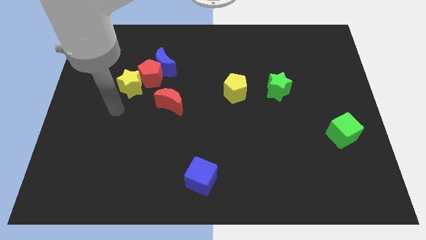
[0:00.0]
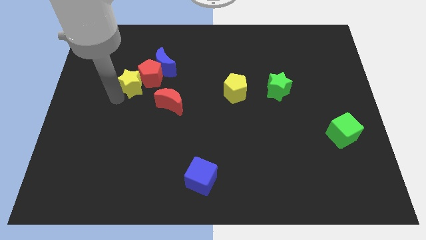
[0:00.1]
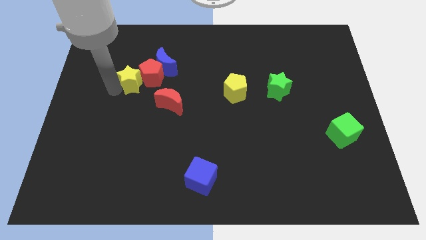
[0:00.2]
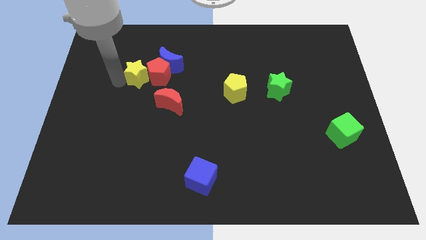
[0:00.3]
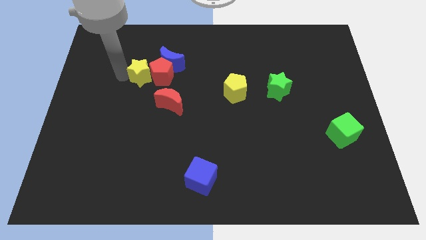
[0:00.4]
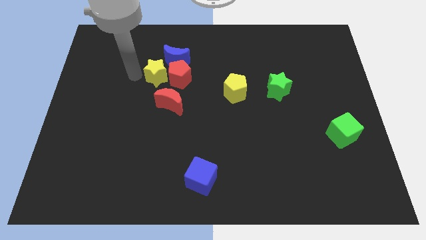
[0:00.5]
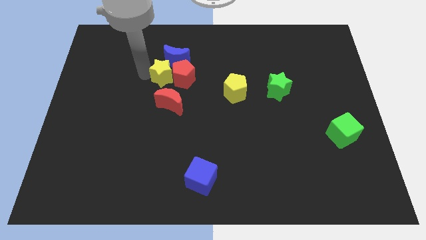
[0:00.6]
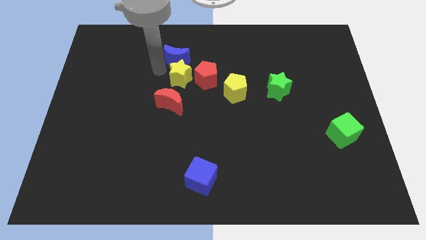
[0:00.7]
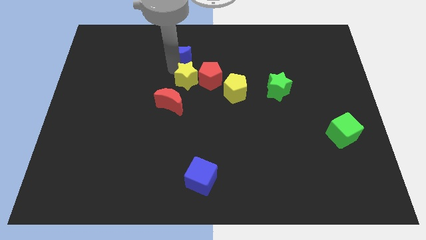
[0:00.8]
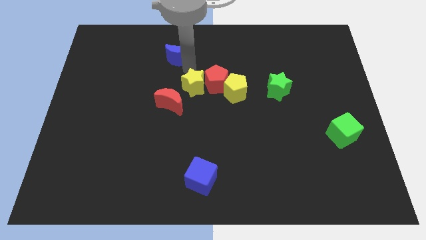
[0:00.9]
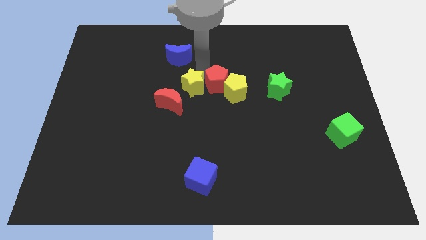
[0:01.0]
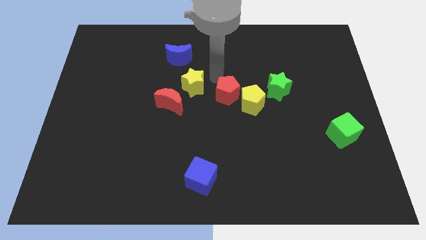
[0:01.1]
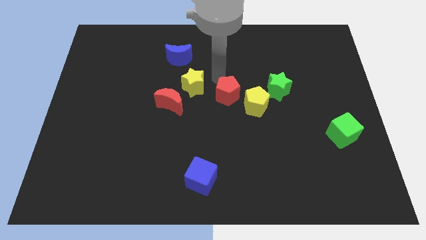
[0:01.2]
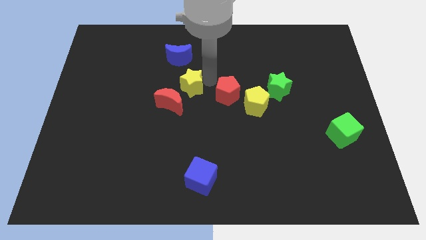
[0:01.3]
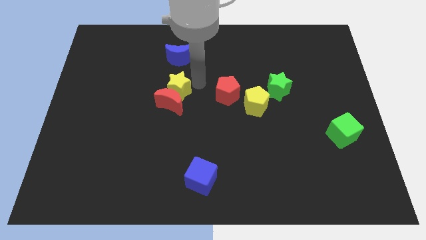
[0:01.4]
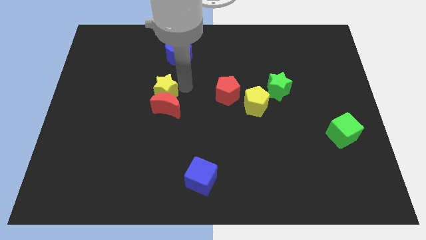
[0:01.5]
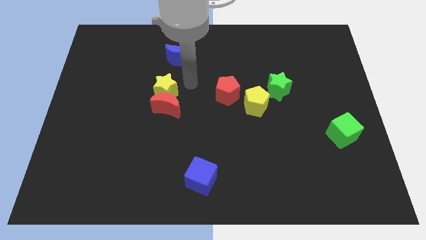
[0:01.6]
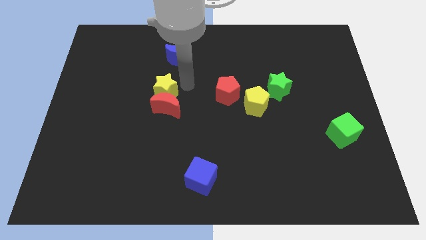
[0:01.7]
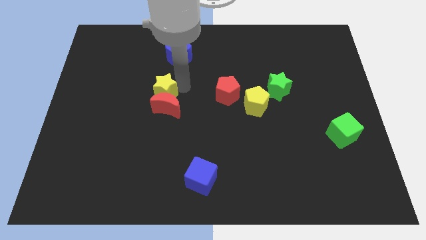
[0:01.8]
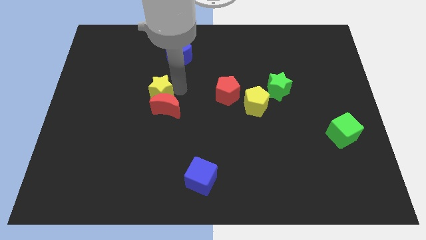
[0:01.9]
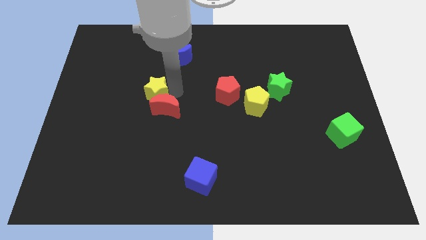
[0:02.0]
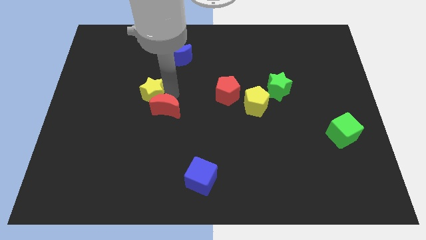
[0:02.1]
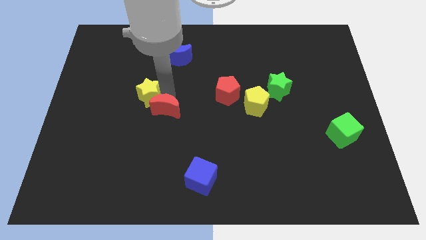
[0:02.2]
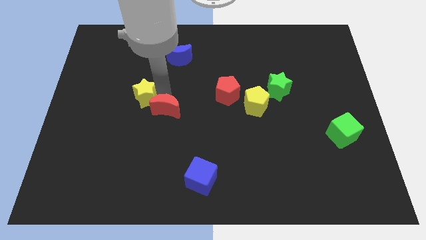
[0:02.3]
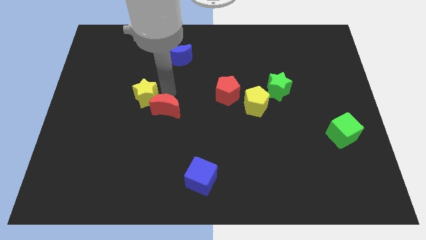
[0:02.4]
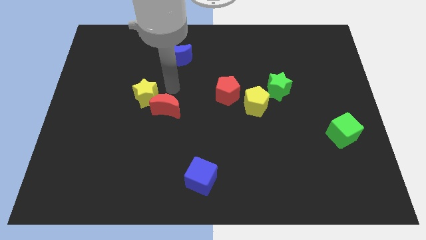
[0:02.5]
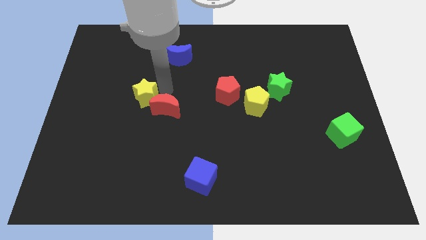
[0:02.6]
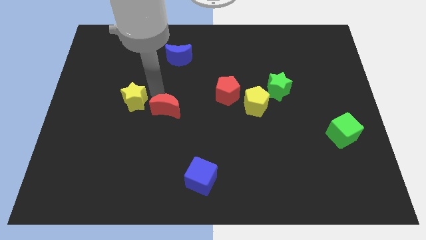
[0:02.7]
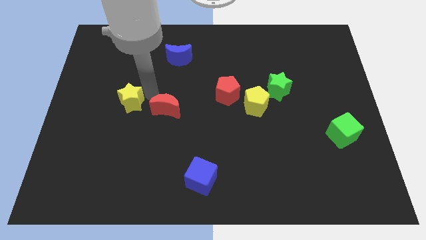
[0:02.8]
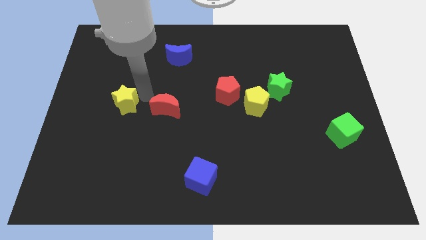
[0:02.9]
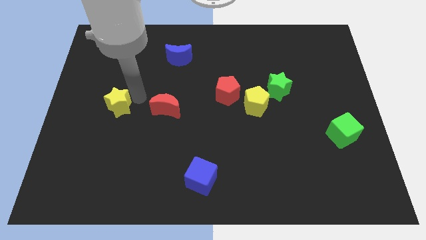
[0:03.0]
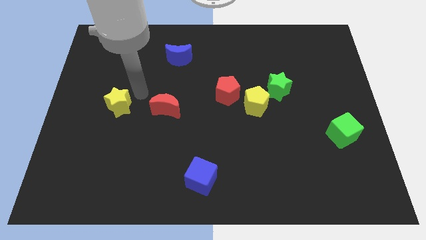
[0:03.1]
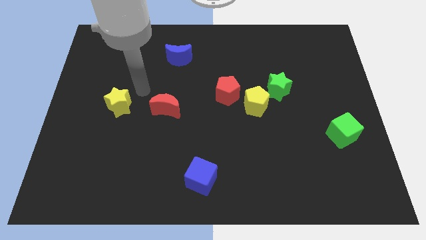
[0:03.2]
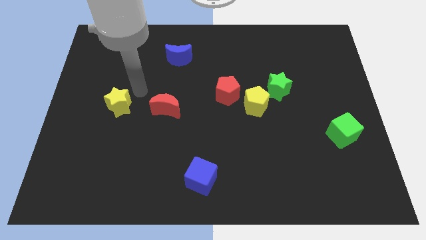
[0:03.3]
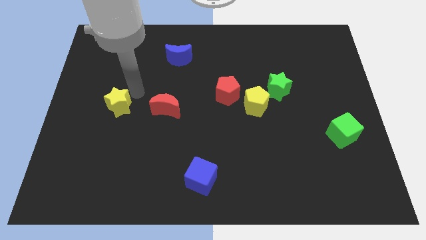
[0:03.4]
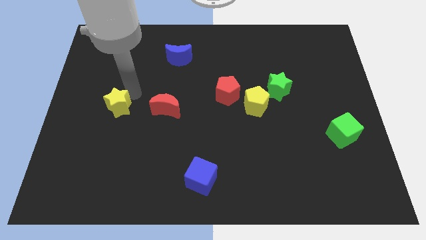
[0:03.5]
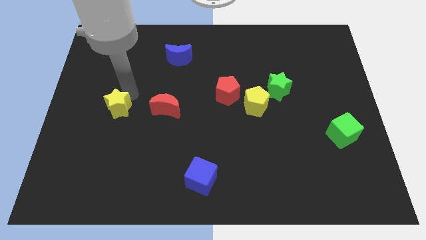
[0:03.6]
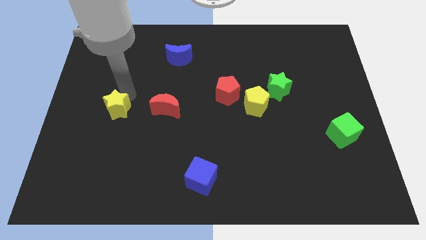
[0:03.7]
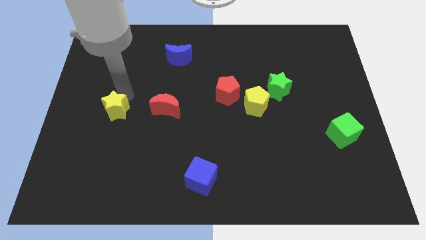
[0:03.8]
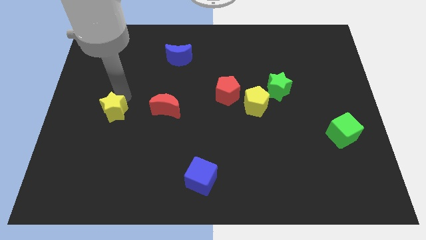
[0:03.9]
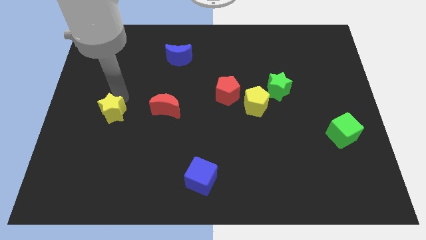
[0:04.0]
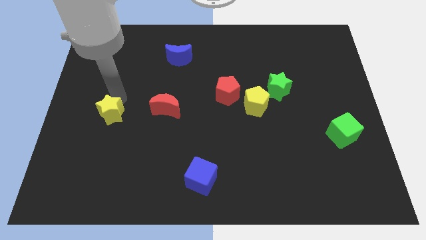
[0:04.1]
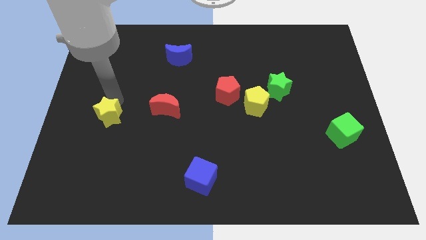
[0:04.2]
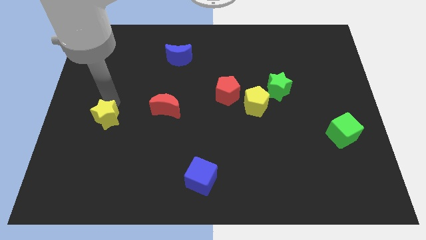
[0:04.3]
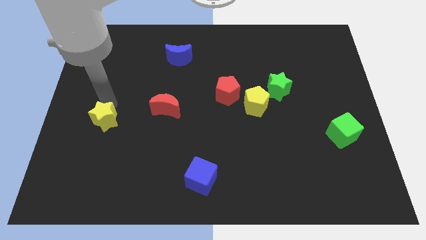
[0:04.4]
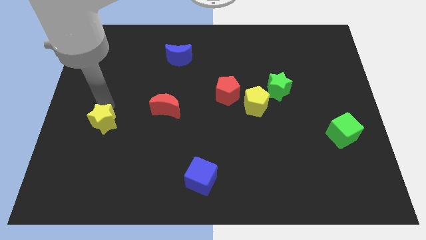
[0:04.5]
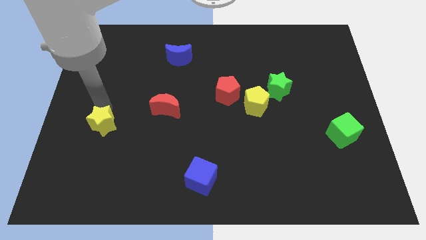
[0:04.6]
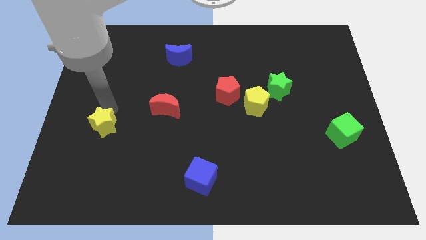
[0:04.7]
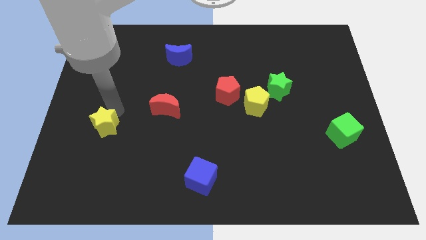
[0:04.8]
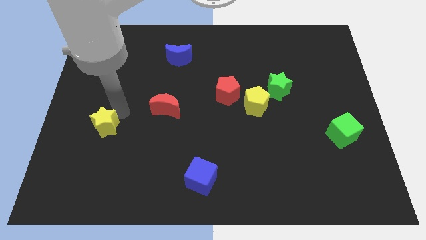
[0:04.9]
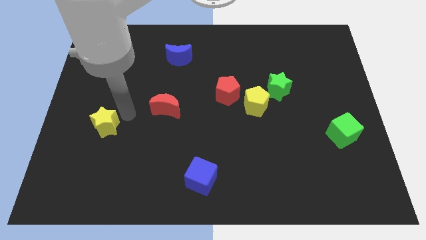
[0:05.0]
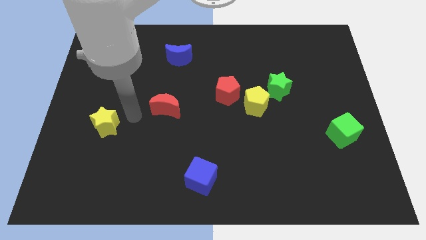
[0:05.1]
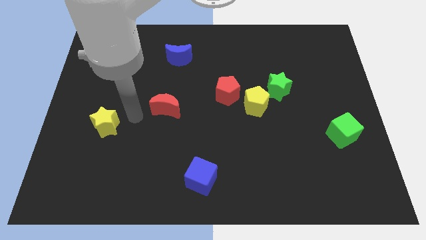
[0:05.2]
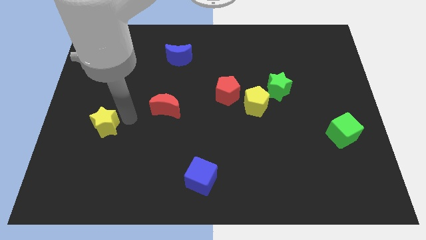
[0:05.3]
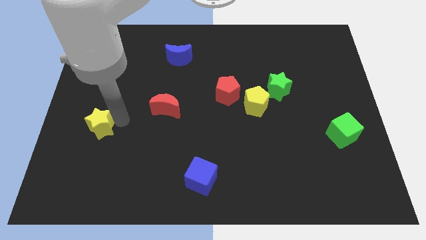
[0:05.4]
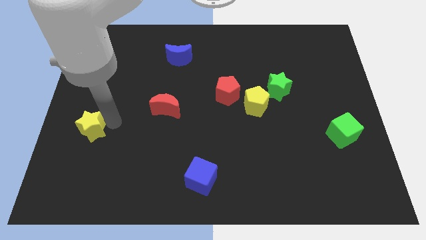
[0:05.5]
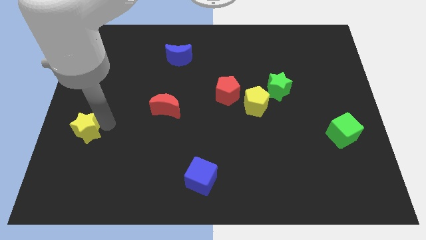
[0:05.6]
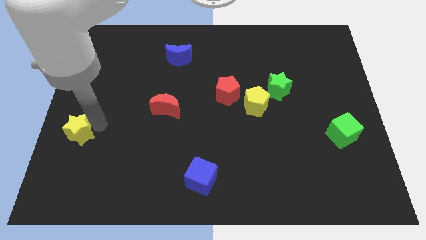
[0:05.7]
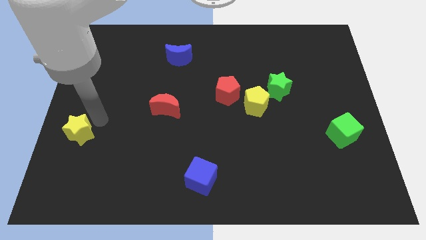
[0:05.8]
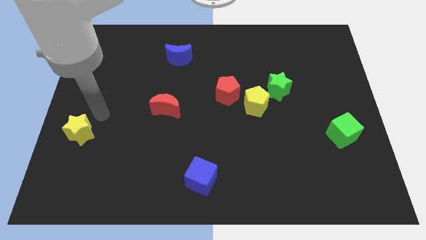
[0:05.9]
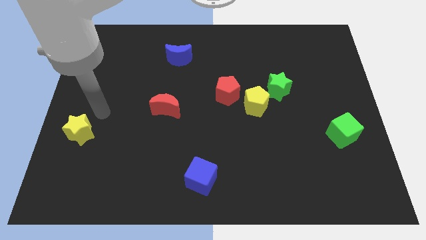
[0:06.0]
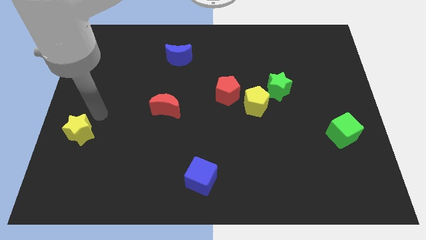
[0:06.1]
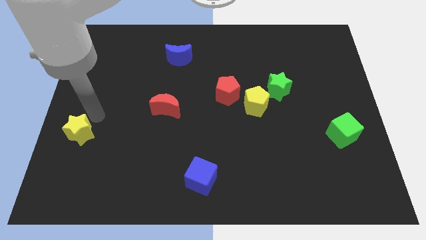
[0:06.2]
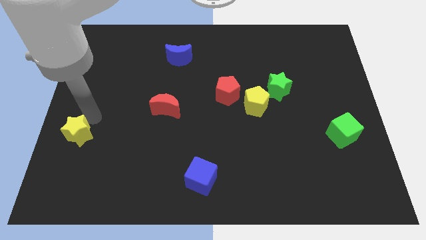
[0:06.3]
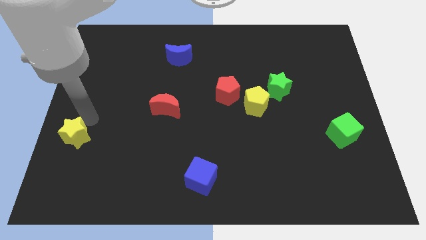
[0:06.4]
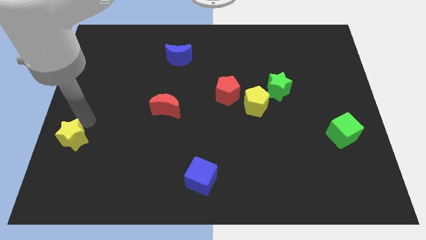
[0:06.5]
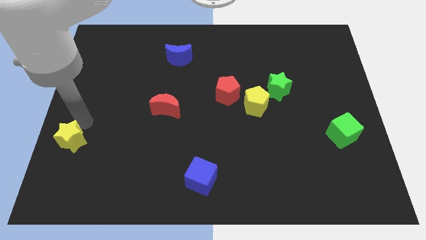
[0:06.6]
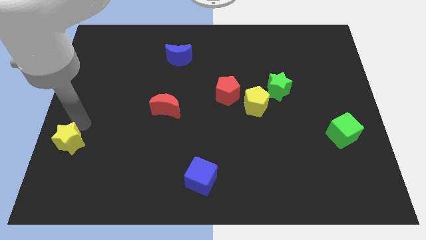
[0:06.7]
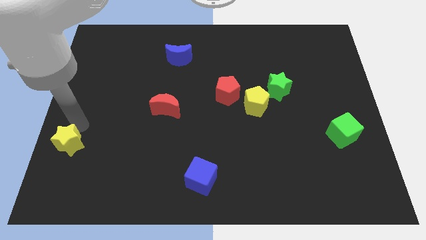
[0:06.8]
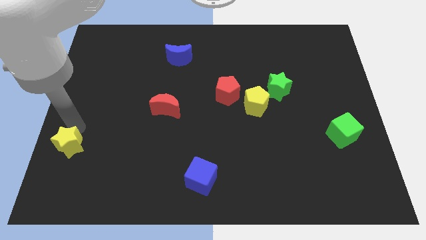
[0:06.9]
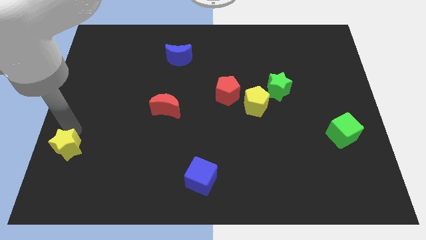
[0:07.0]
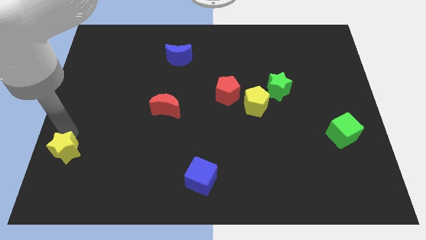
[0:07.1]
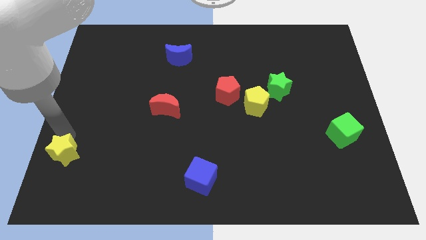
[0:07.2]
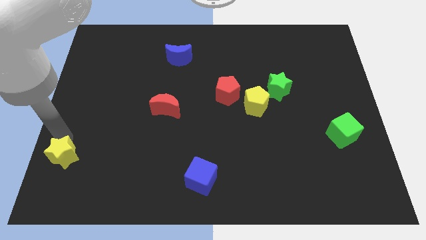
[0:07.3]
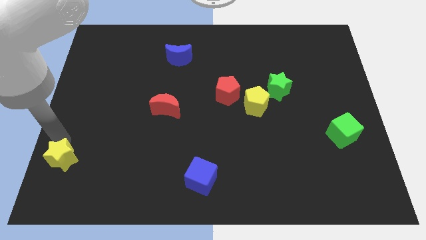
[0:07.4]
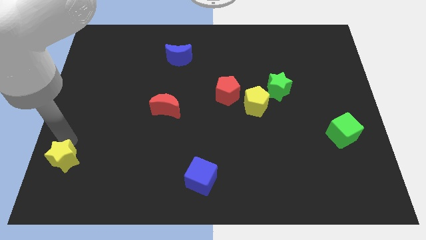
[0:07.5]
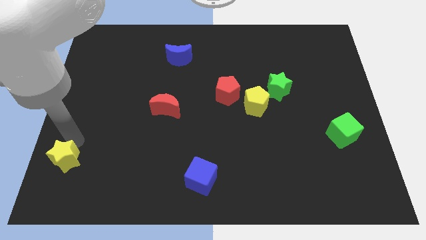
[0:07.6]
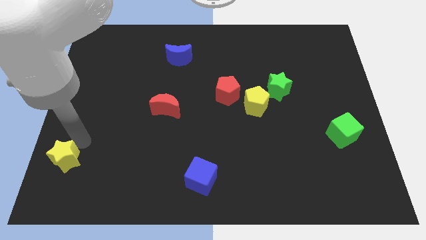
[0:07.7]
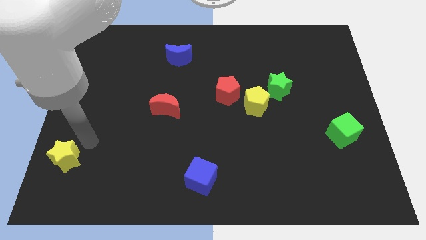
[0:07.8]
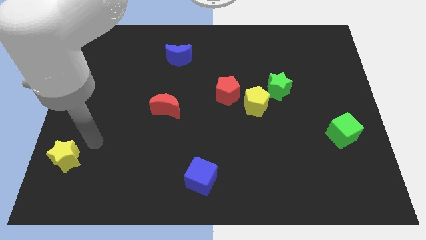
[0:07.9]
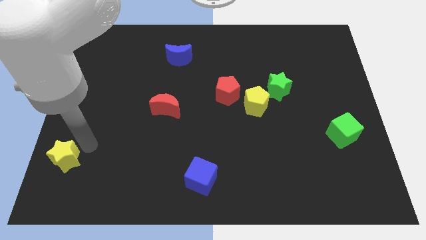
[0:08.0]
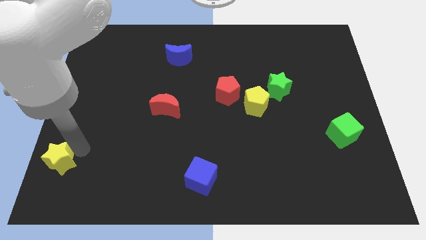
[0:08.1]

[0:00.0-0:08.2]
push the yellow star to the bottom left corner
